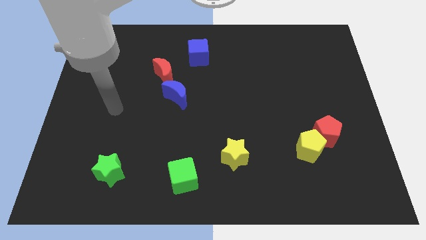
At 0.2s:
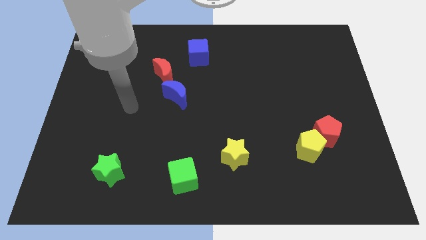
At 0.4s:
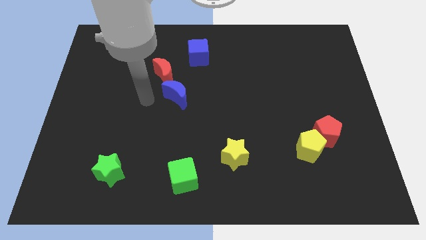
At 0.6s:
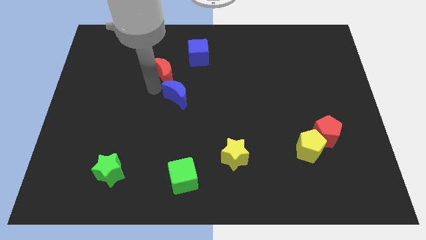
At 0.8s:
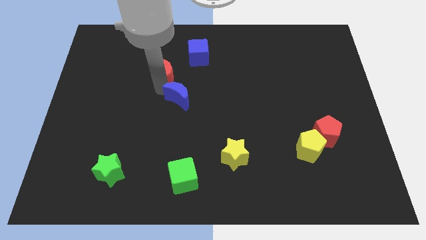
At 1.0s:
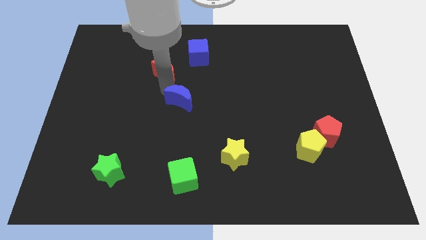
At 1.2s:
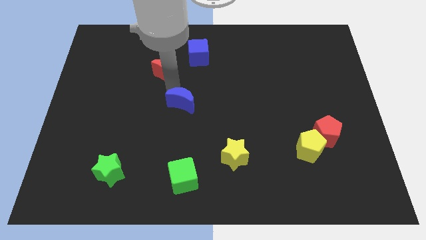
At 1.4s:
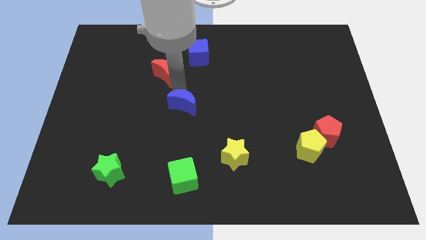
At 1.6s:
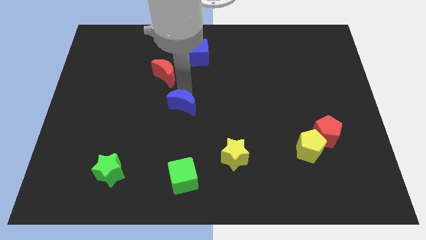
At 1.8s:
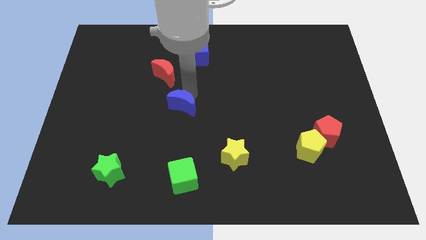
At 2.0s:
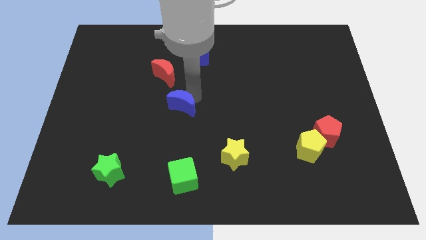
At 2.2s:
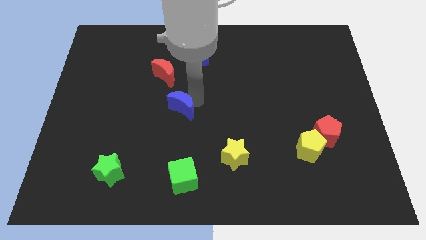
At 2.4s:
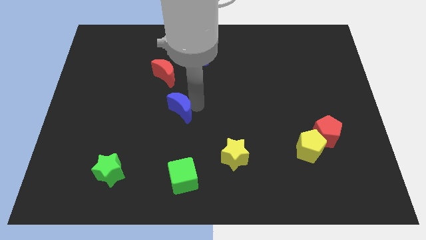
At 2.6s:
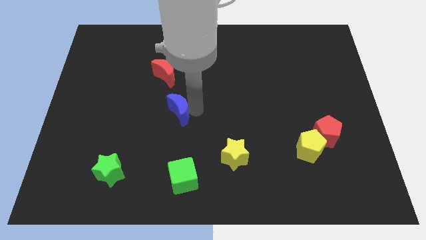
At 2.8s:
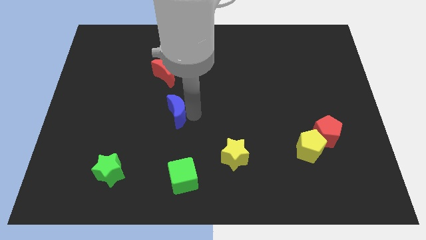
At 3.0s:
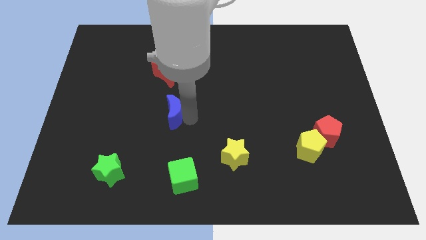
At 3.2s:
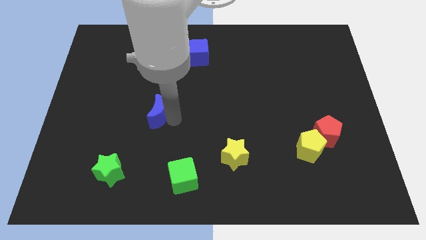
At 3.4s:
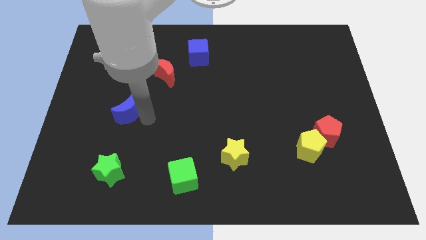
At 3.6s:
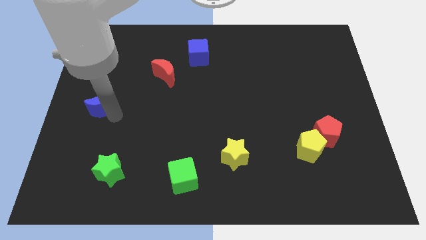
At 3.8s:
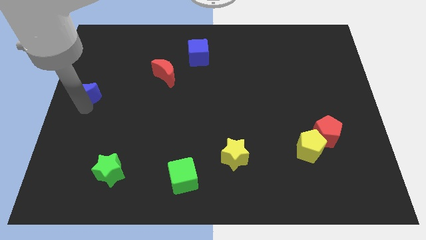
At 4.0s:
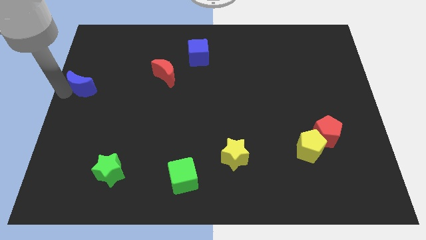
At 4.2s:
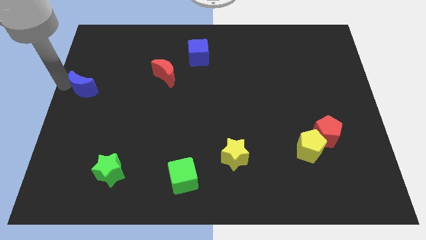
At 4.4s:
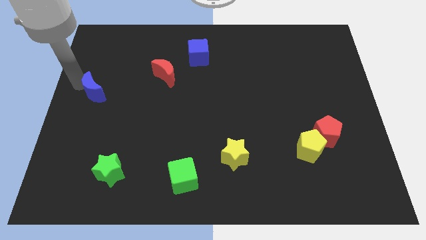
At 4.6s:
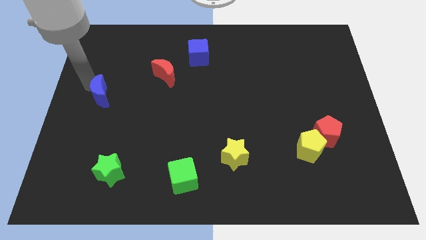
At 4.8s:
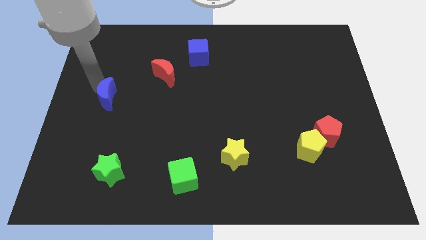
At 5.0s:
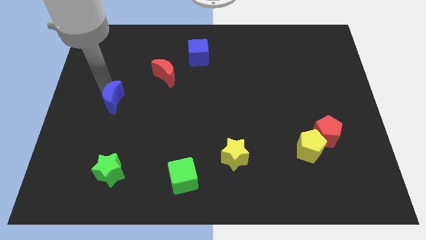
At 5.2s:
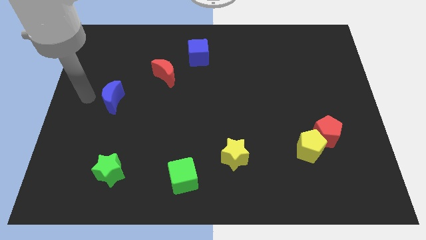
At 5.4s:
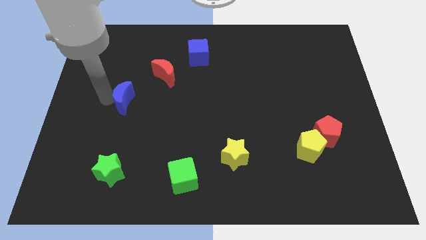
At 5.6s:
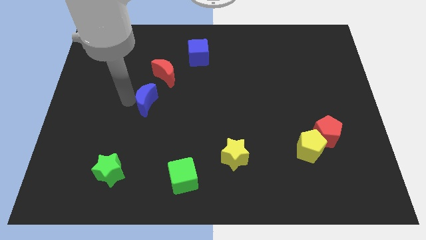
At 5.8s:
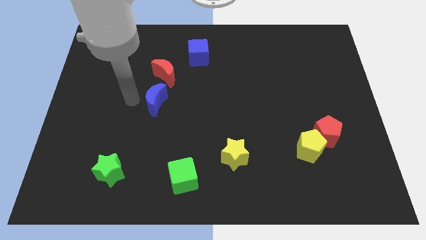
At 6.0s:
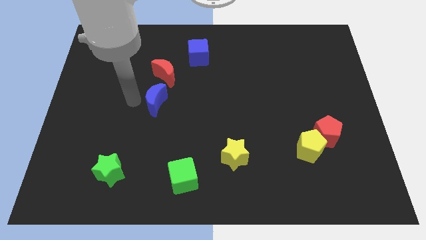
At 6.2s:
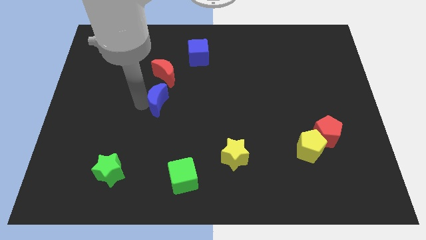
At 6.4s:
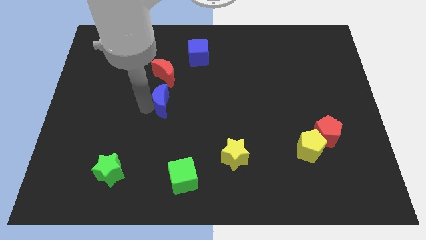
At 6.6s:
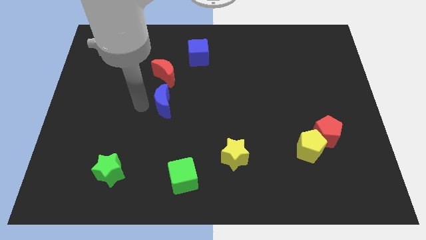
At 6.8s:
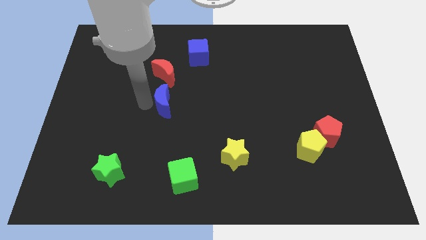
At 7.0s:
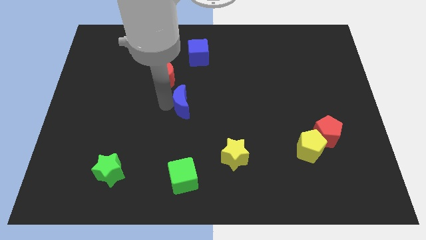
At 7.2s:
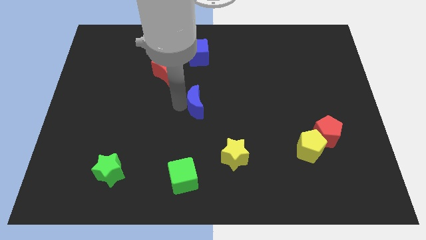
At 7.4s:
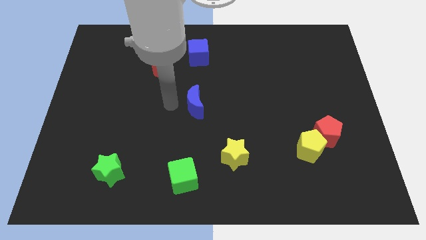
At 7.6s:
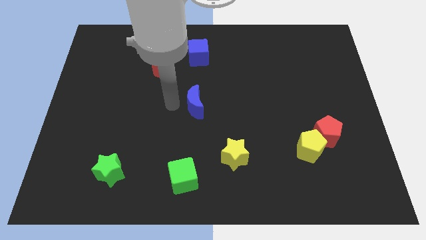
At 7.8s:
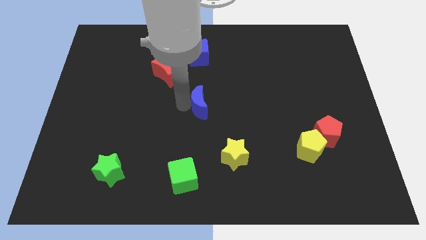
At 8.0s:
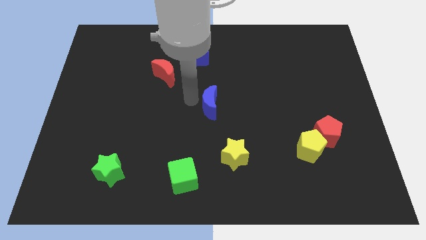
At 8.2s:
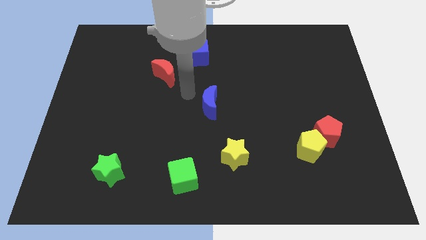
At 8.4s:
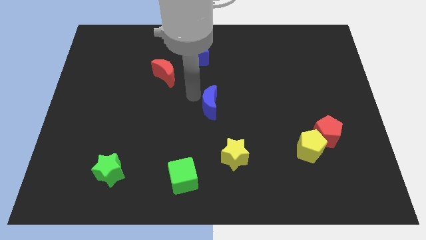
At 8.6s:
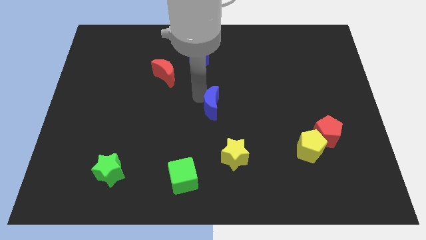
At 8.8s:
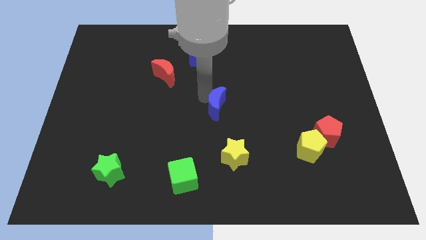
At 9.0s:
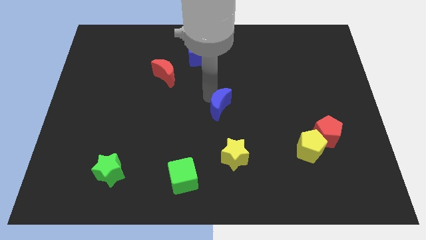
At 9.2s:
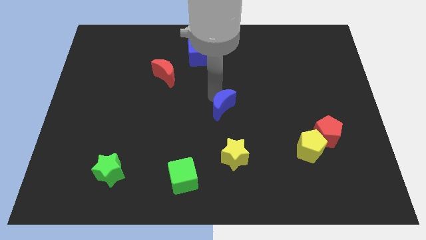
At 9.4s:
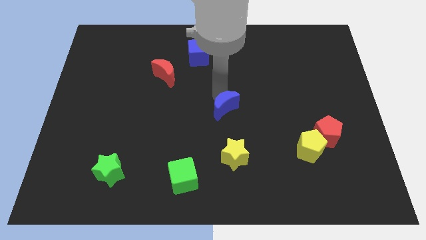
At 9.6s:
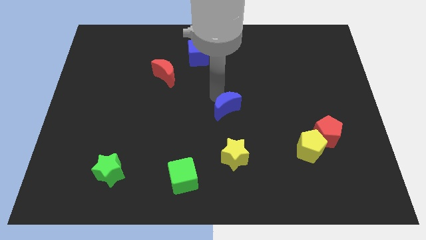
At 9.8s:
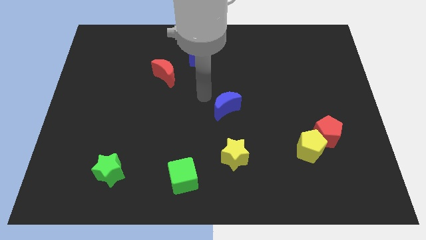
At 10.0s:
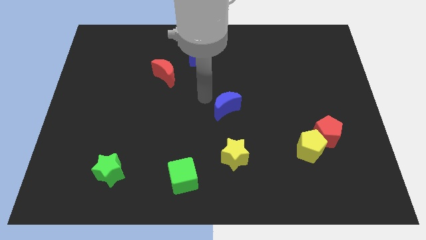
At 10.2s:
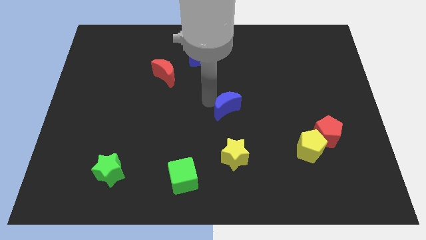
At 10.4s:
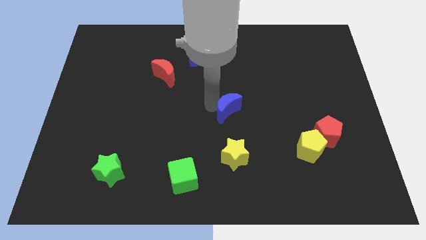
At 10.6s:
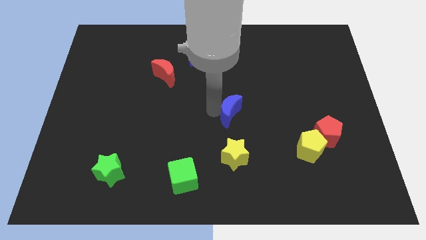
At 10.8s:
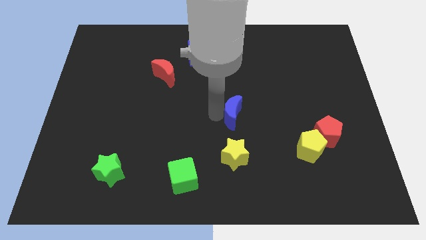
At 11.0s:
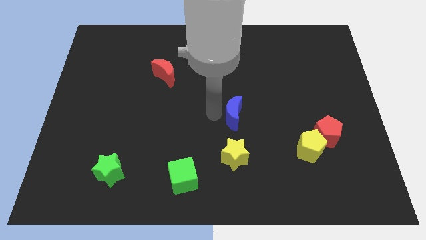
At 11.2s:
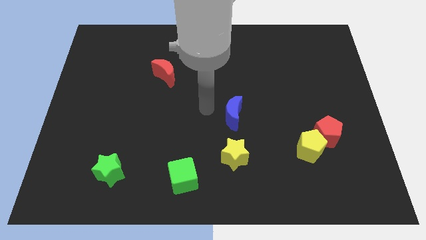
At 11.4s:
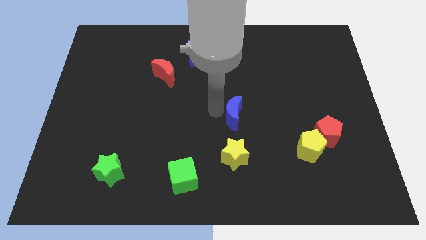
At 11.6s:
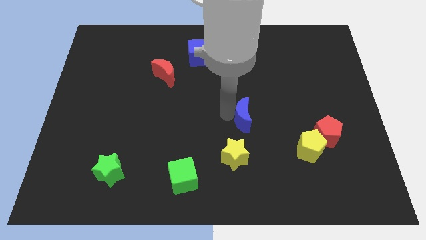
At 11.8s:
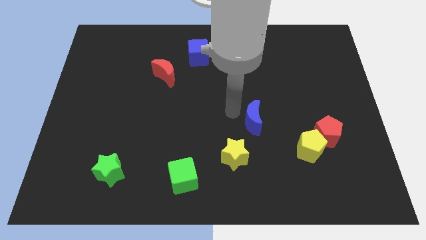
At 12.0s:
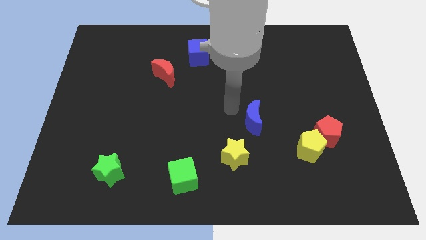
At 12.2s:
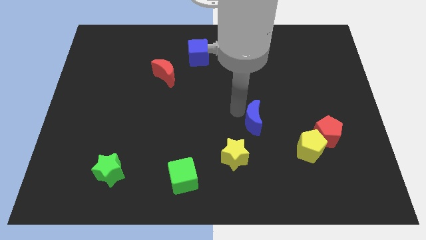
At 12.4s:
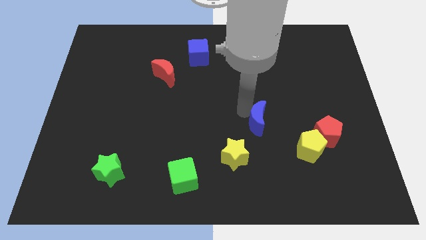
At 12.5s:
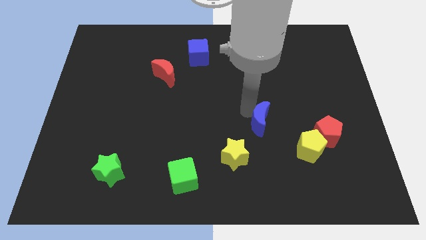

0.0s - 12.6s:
move the blue moon just left of the red pentagon

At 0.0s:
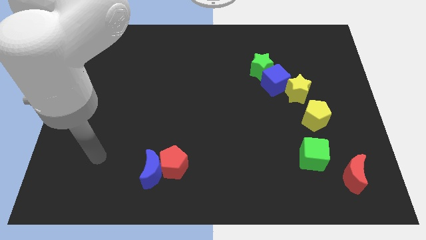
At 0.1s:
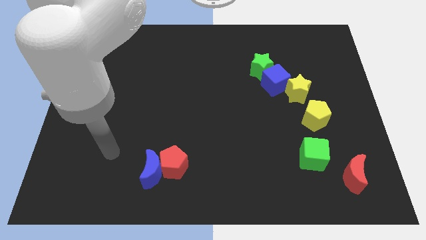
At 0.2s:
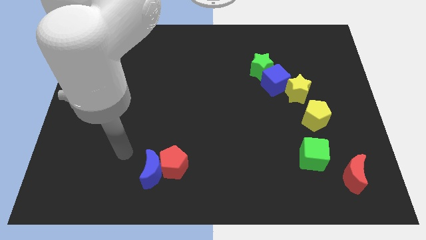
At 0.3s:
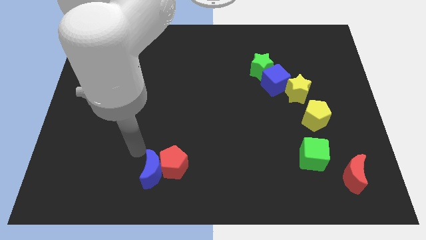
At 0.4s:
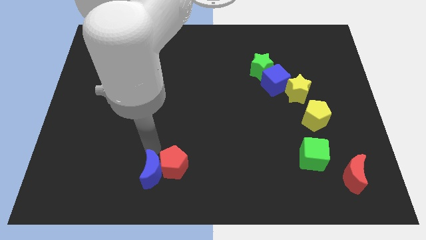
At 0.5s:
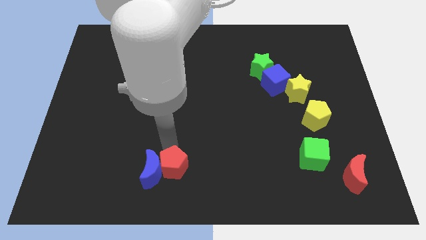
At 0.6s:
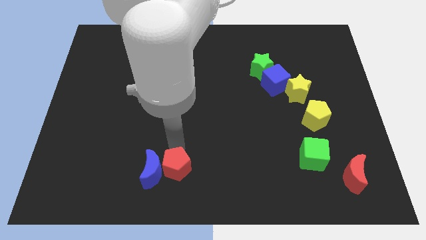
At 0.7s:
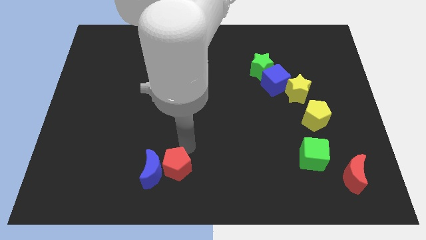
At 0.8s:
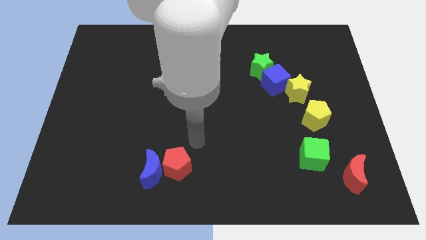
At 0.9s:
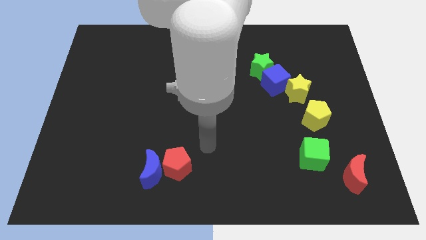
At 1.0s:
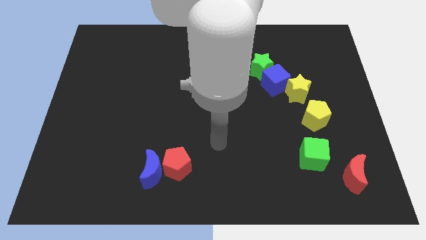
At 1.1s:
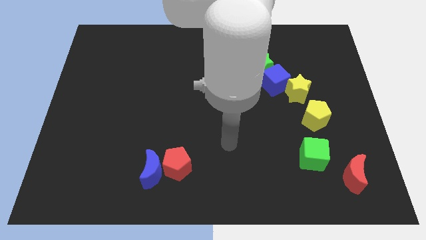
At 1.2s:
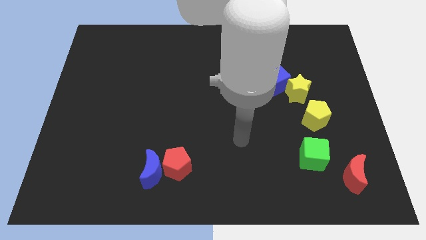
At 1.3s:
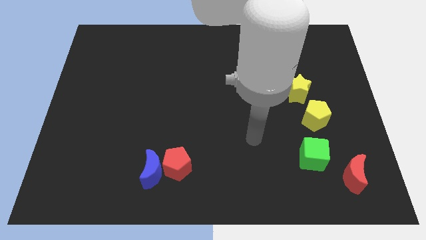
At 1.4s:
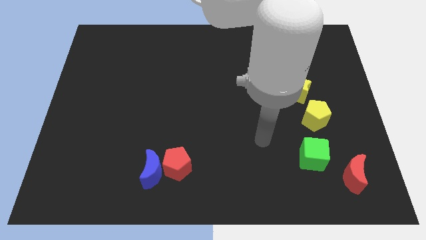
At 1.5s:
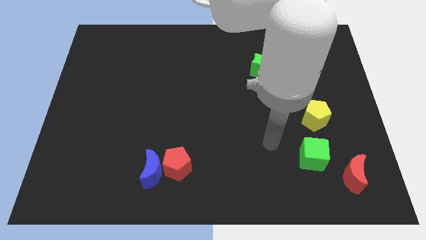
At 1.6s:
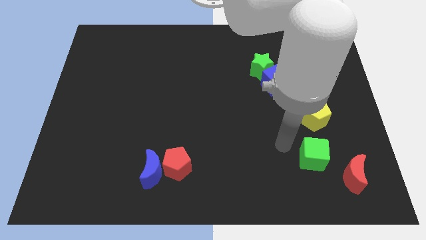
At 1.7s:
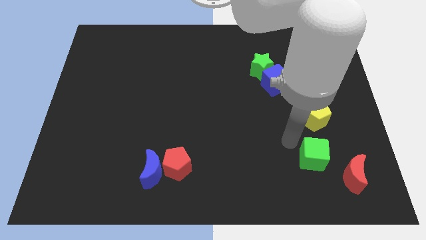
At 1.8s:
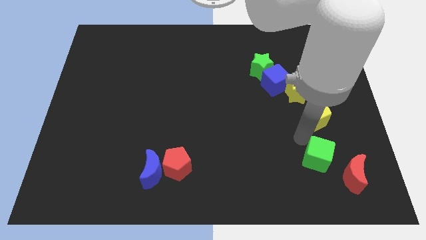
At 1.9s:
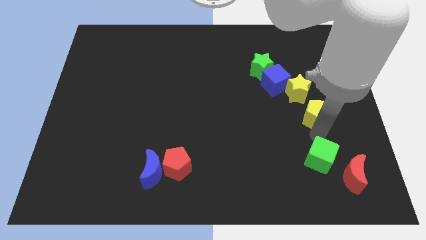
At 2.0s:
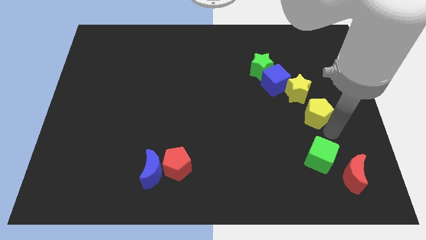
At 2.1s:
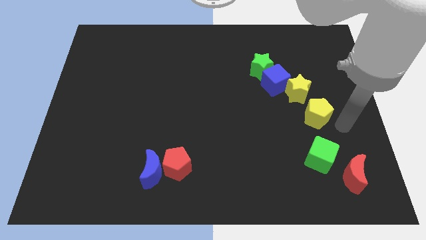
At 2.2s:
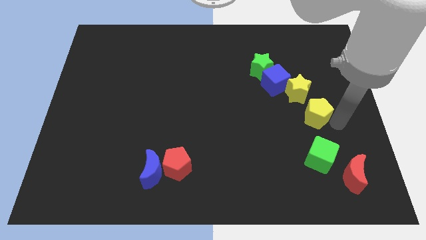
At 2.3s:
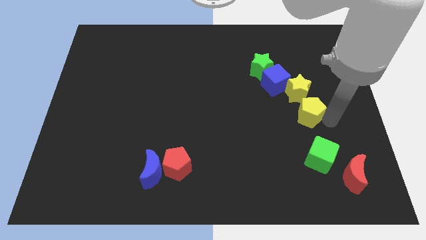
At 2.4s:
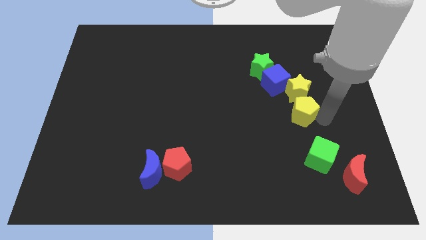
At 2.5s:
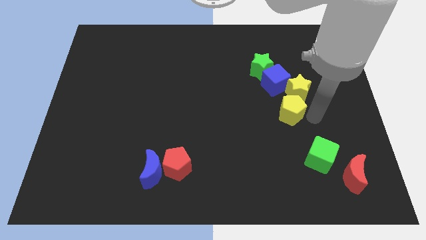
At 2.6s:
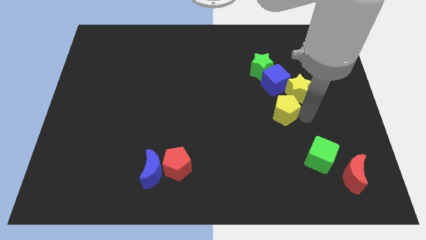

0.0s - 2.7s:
put the yellow pentagon below the green star
